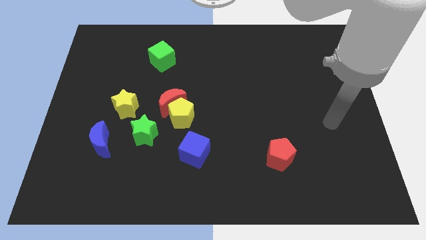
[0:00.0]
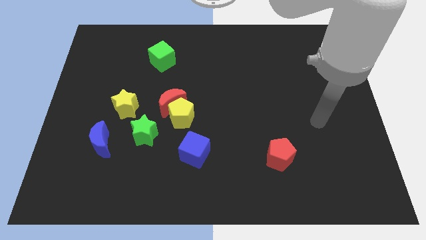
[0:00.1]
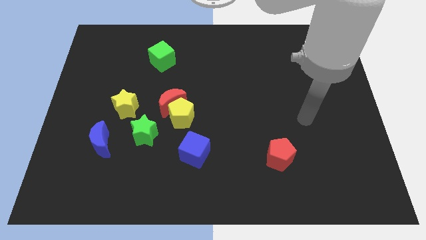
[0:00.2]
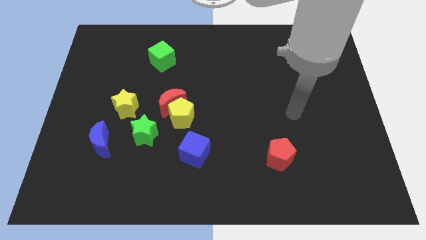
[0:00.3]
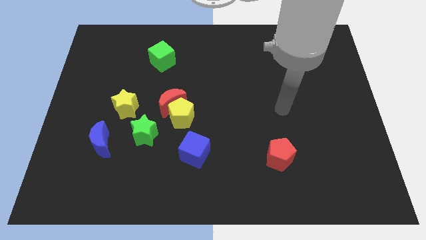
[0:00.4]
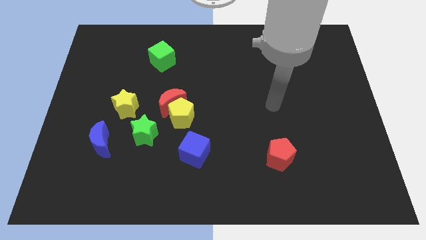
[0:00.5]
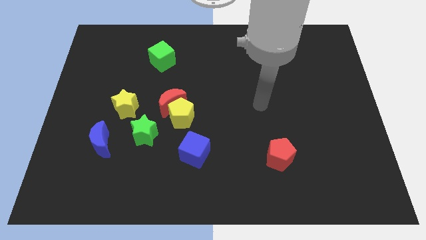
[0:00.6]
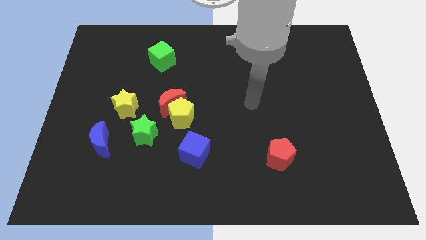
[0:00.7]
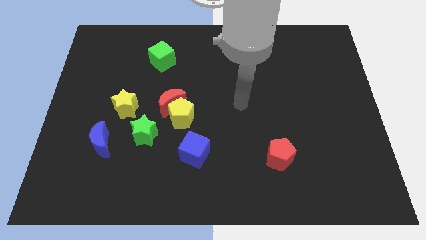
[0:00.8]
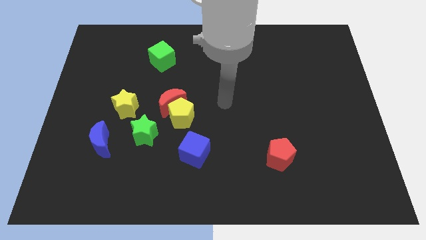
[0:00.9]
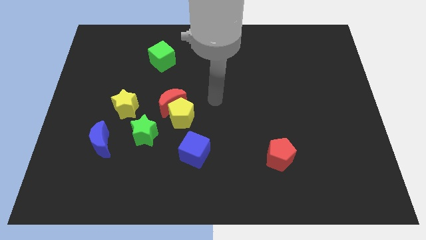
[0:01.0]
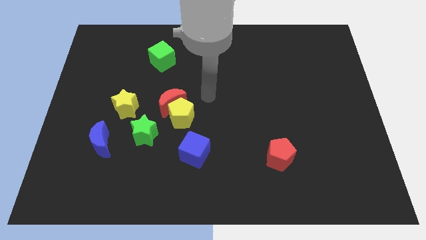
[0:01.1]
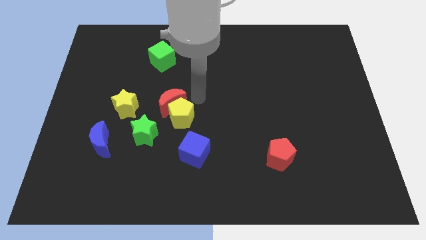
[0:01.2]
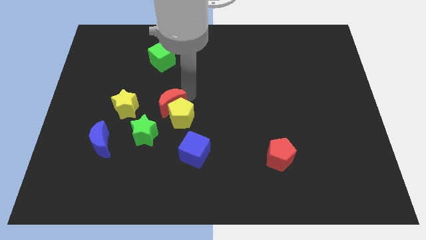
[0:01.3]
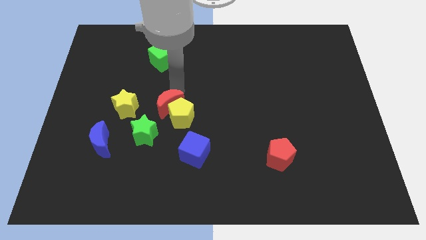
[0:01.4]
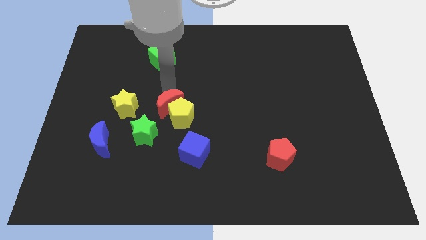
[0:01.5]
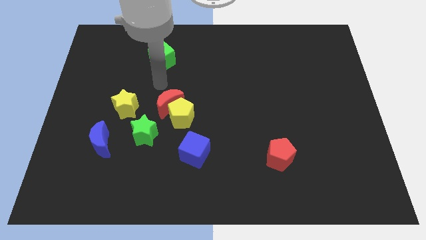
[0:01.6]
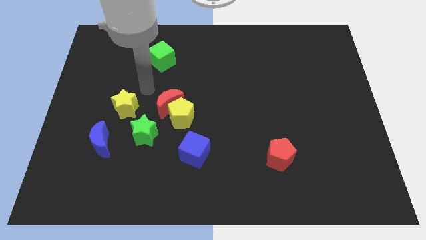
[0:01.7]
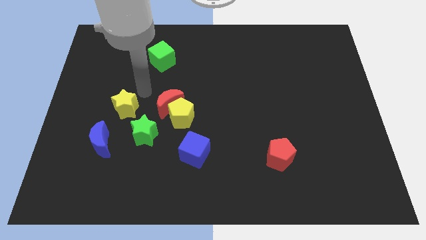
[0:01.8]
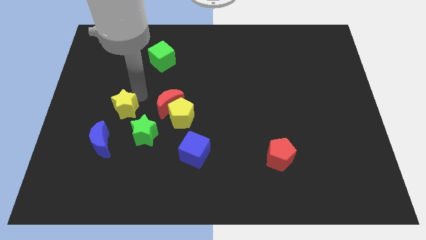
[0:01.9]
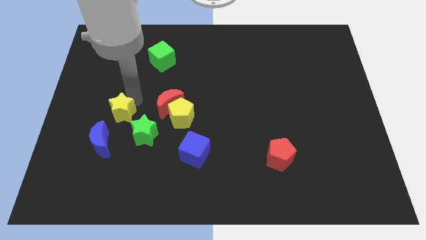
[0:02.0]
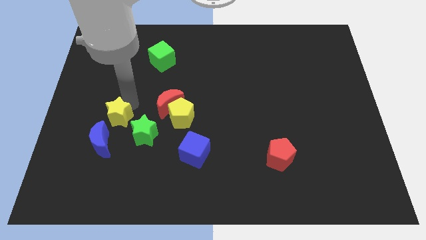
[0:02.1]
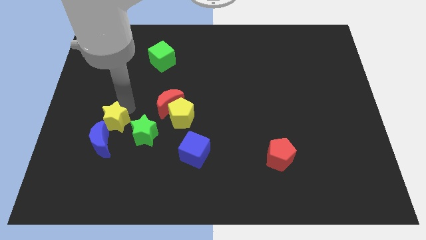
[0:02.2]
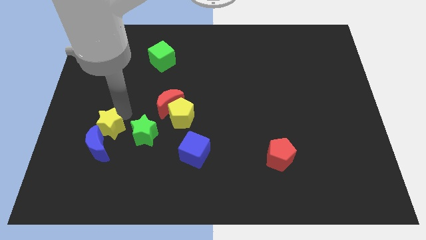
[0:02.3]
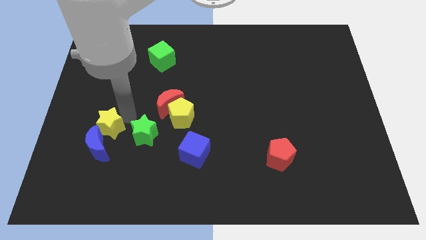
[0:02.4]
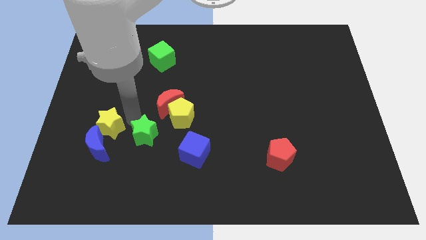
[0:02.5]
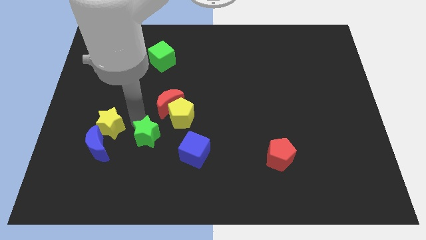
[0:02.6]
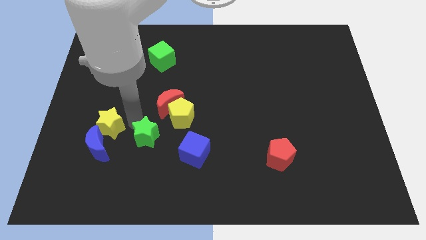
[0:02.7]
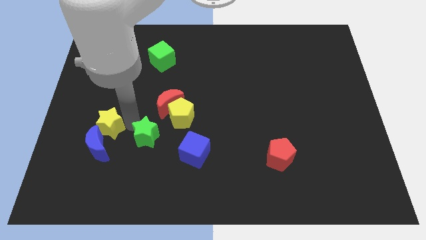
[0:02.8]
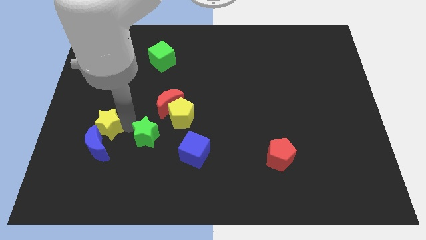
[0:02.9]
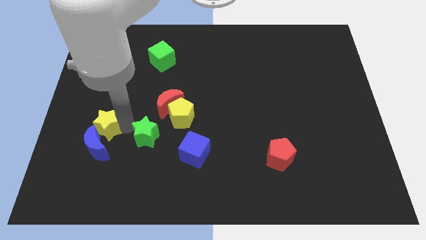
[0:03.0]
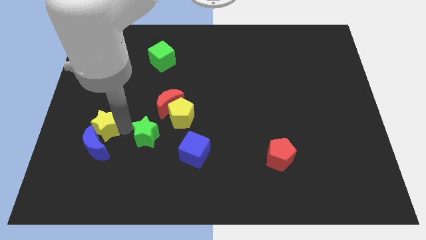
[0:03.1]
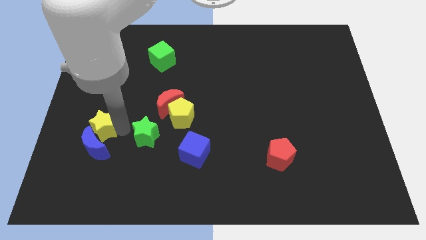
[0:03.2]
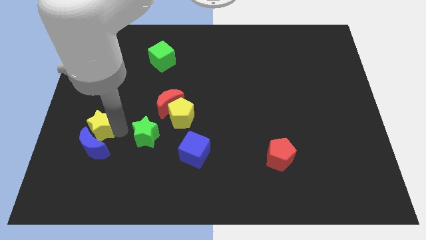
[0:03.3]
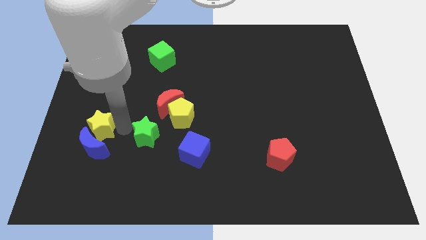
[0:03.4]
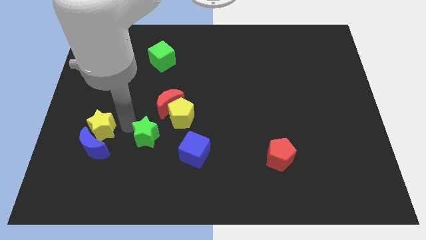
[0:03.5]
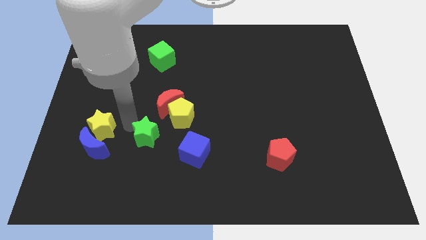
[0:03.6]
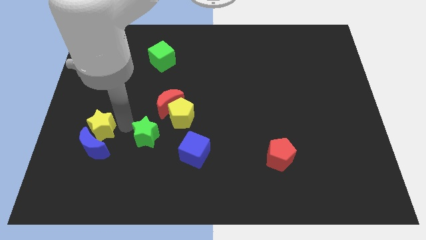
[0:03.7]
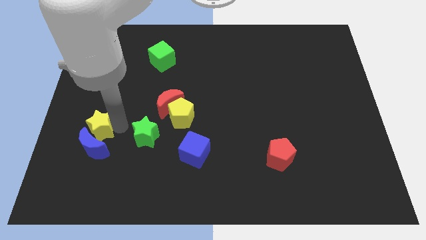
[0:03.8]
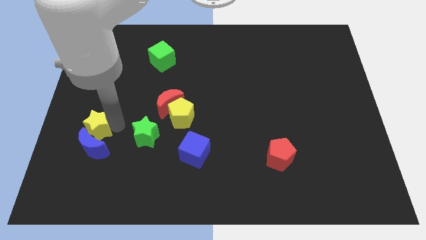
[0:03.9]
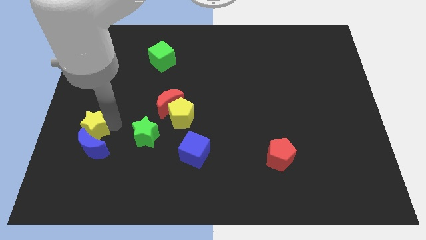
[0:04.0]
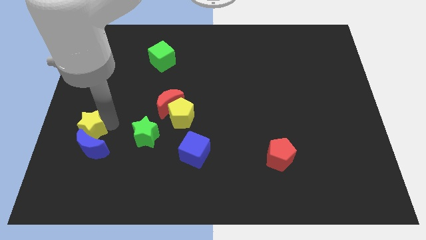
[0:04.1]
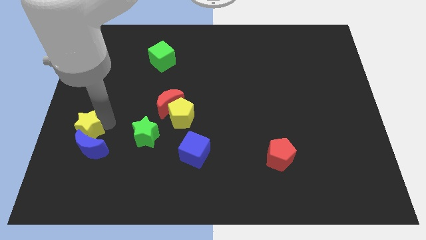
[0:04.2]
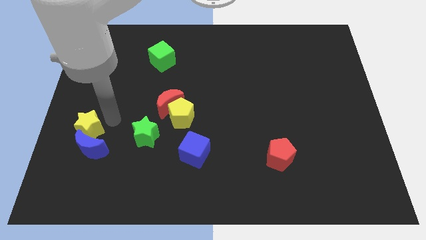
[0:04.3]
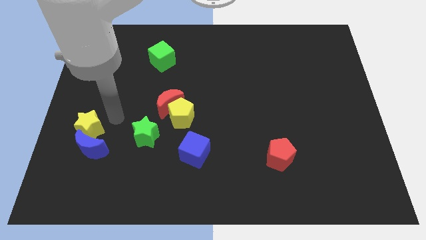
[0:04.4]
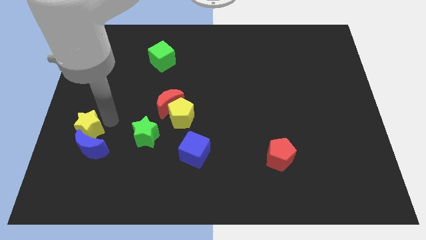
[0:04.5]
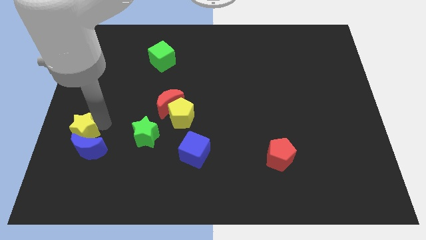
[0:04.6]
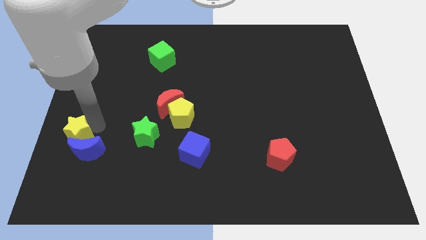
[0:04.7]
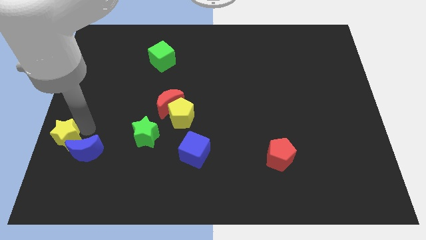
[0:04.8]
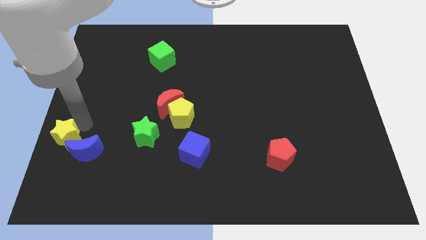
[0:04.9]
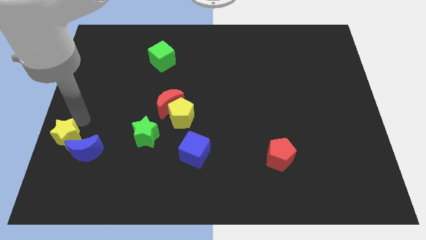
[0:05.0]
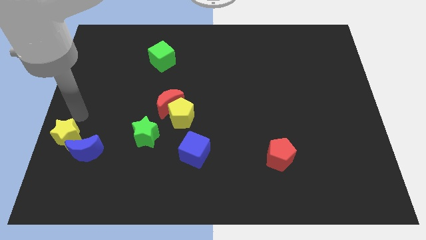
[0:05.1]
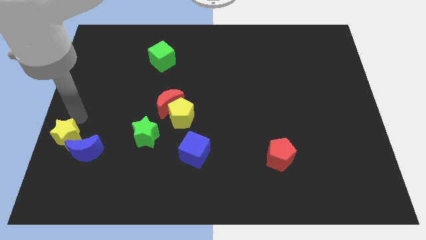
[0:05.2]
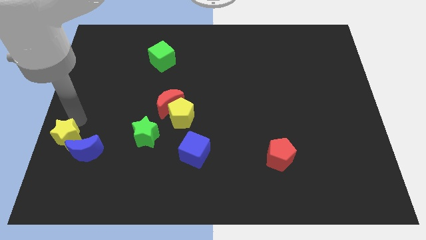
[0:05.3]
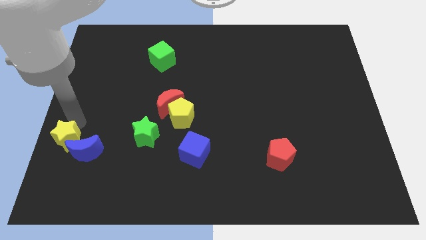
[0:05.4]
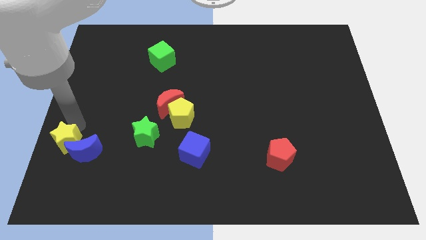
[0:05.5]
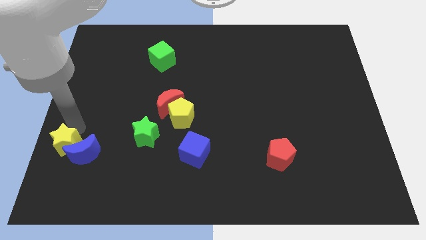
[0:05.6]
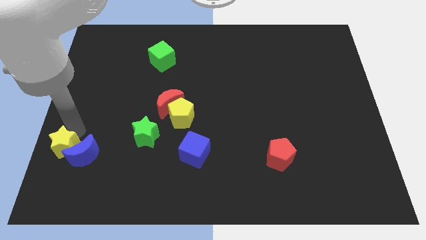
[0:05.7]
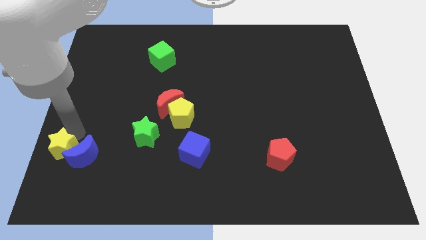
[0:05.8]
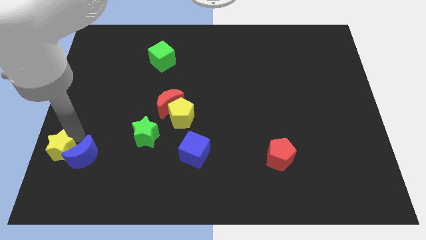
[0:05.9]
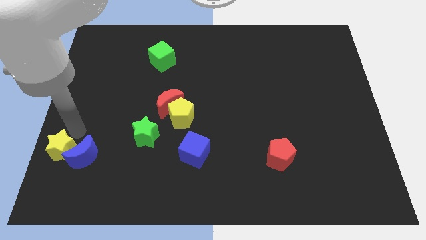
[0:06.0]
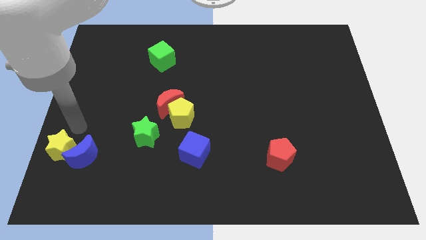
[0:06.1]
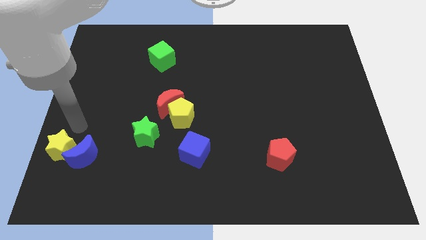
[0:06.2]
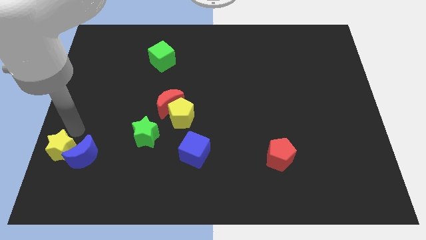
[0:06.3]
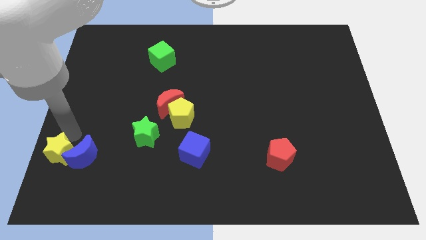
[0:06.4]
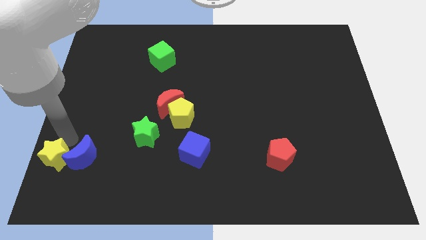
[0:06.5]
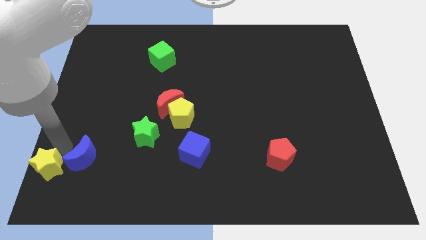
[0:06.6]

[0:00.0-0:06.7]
put the yellow star to the bottom left of the board

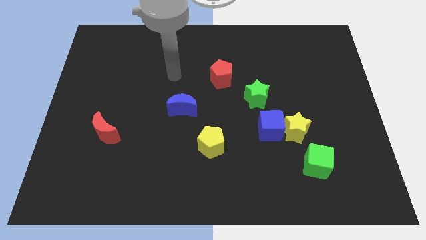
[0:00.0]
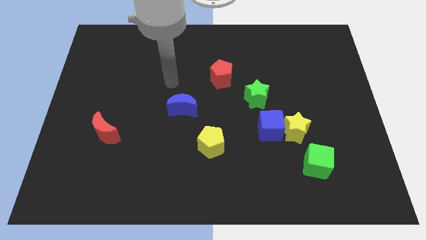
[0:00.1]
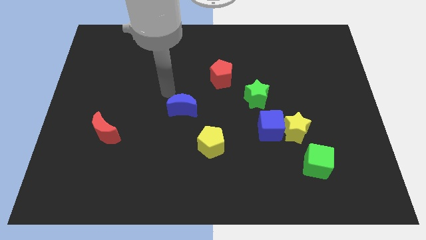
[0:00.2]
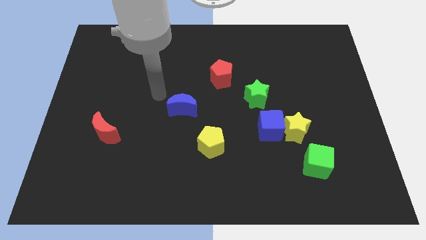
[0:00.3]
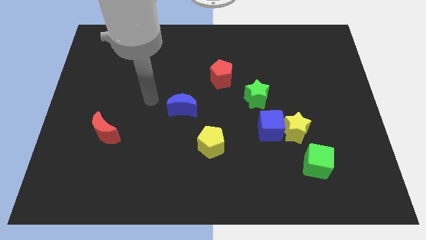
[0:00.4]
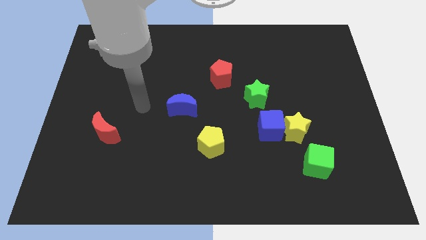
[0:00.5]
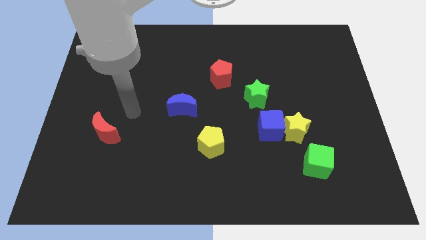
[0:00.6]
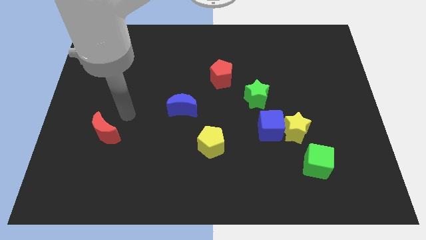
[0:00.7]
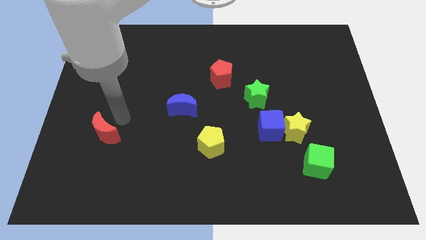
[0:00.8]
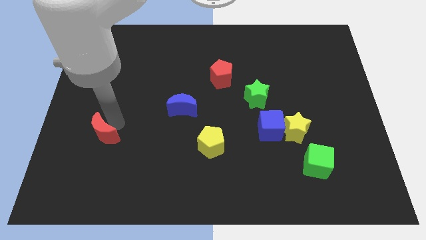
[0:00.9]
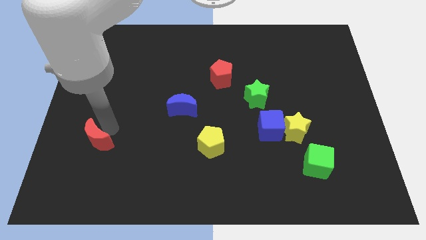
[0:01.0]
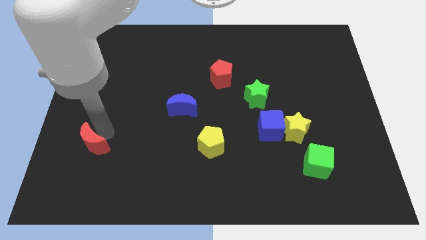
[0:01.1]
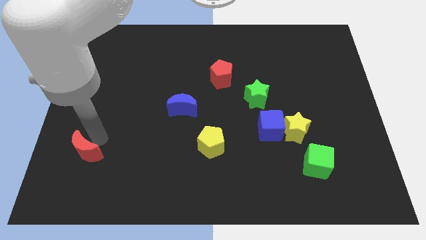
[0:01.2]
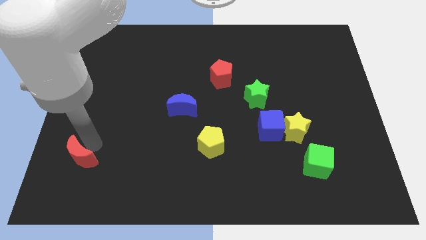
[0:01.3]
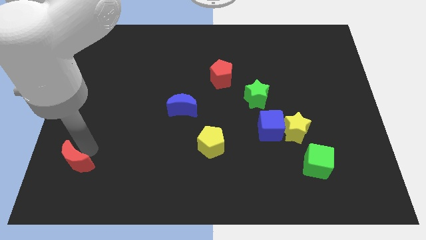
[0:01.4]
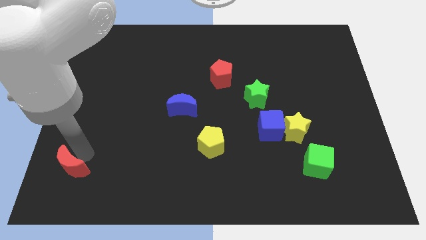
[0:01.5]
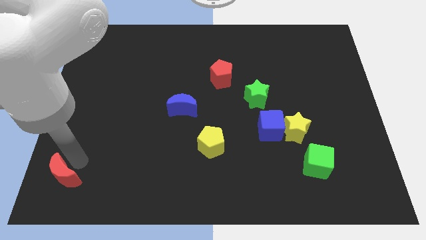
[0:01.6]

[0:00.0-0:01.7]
push the red moon to the bottom left corner
